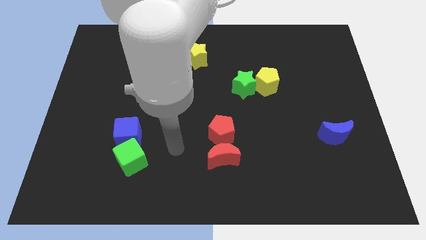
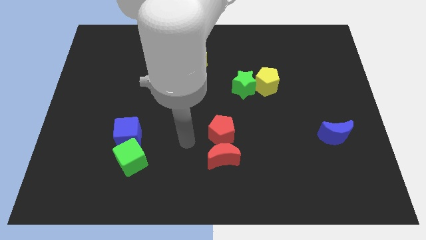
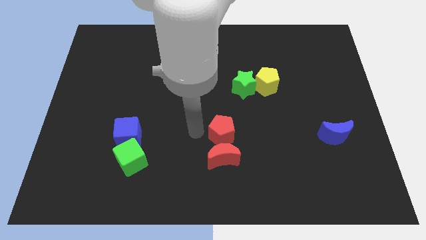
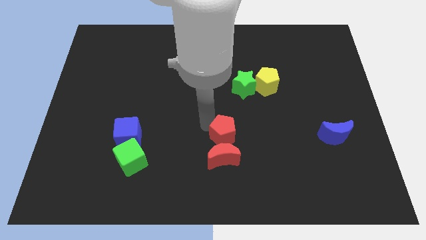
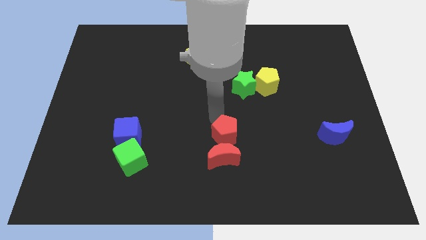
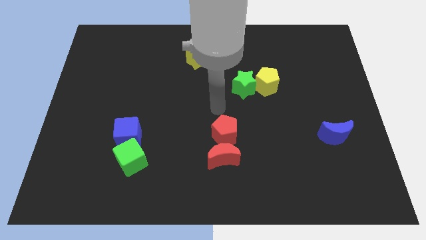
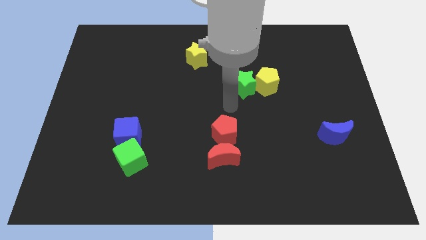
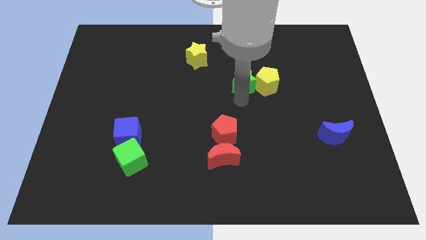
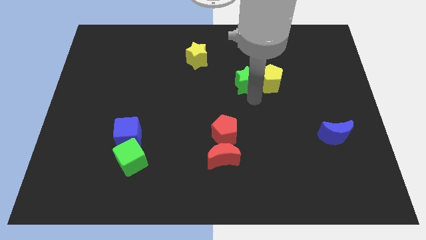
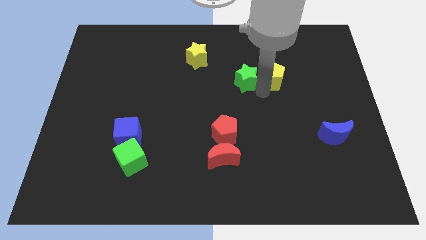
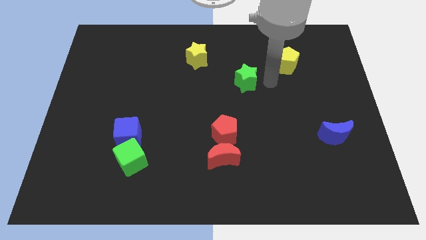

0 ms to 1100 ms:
pull the green star apart from the yellow pentagon

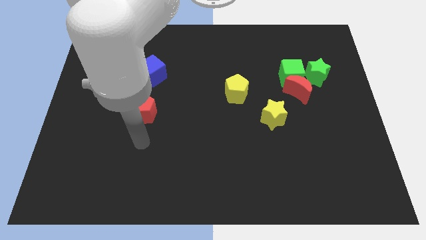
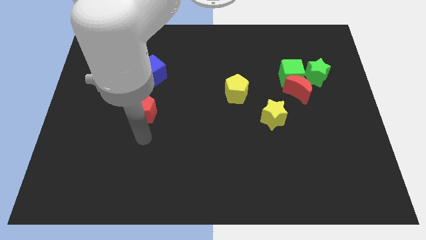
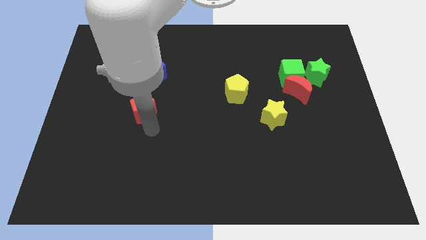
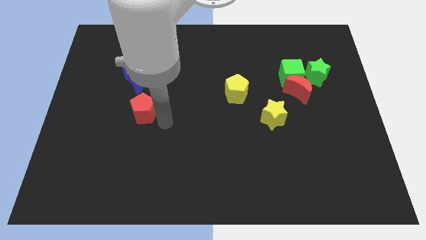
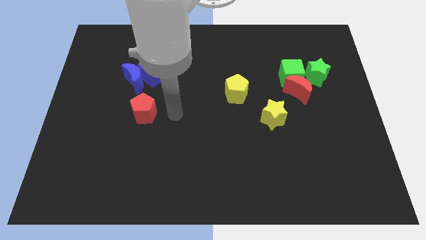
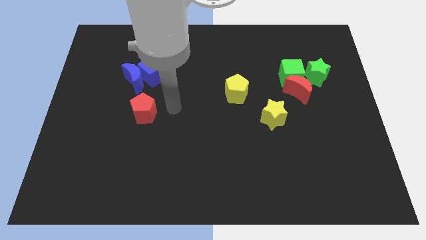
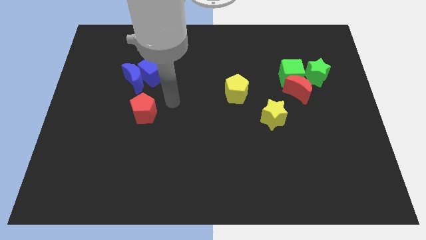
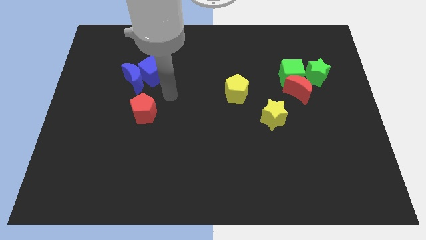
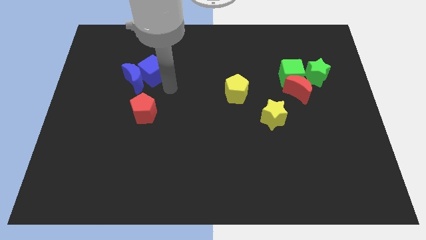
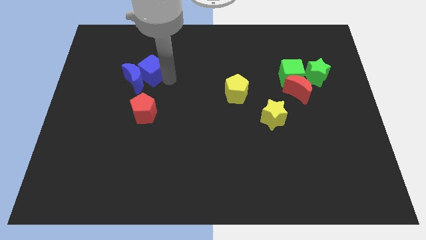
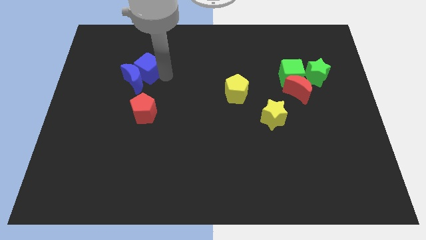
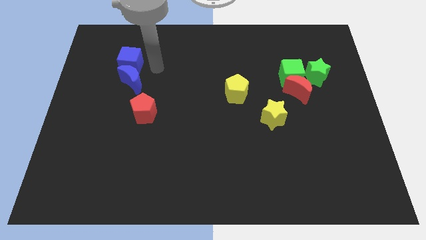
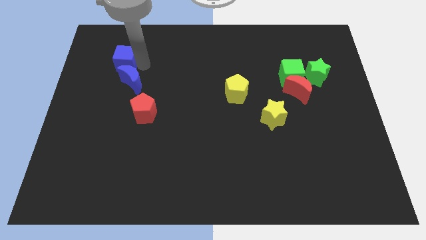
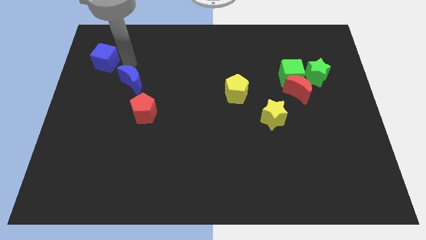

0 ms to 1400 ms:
pull the blue moon apart from the blue cube

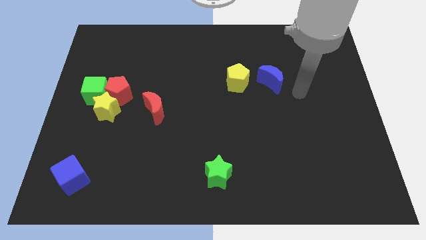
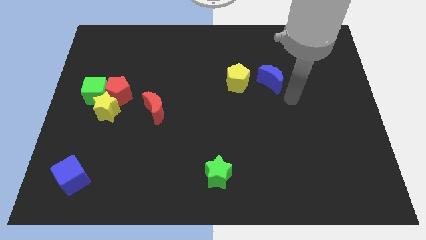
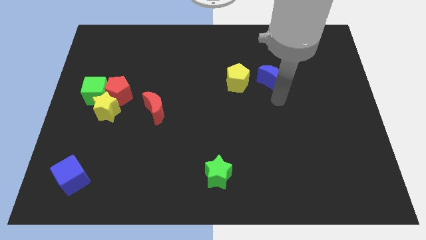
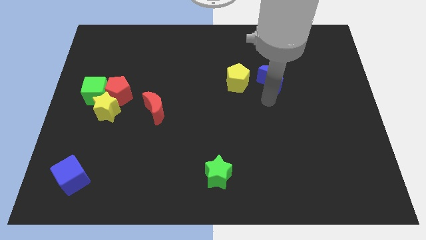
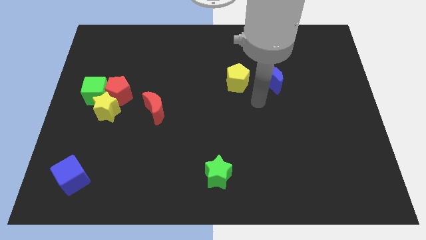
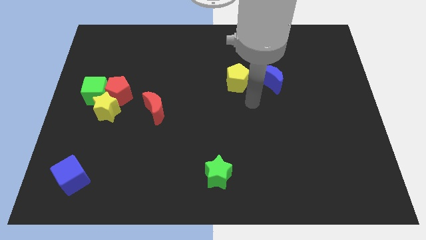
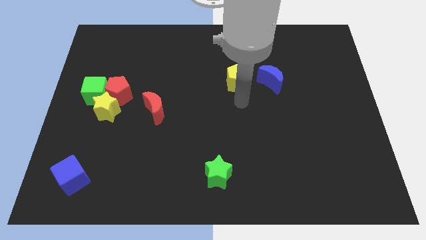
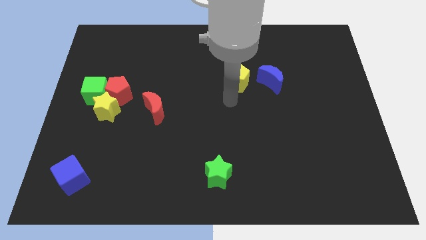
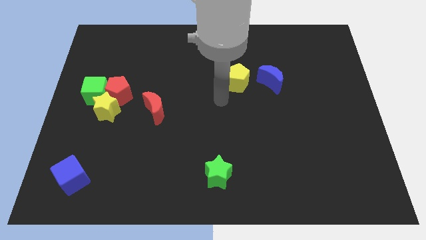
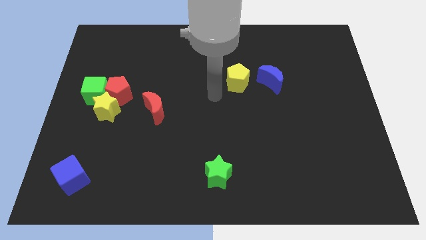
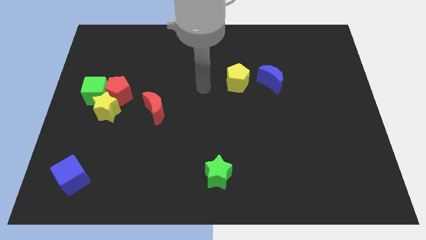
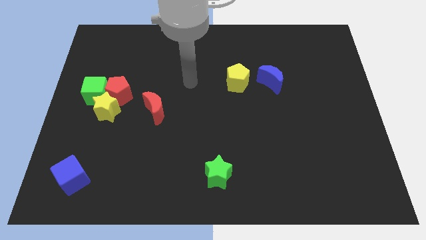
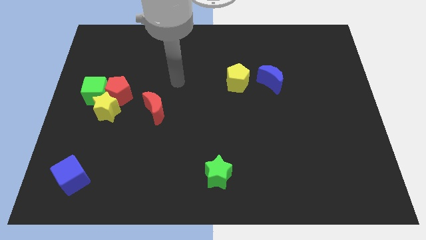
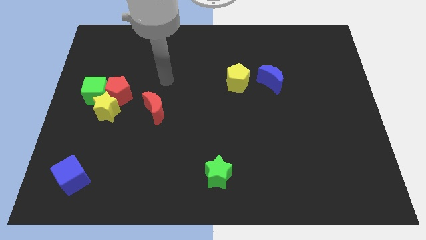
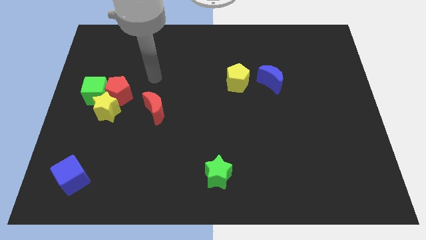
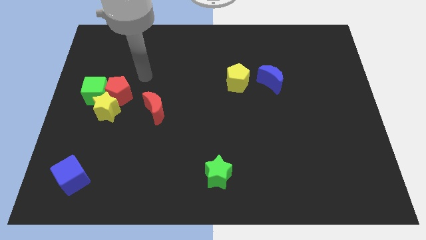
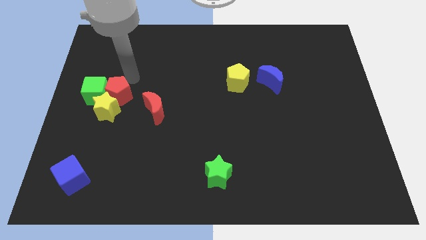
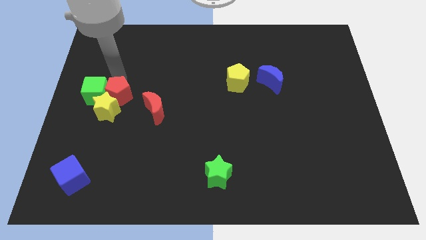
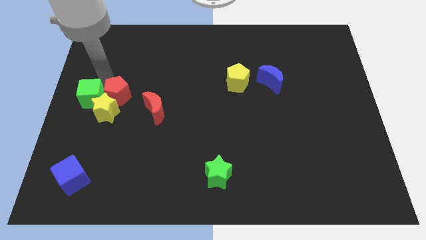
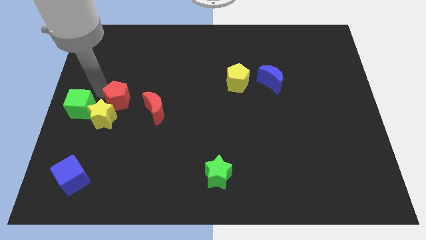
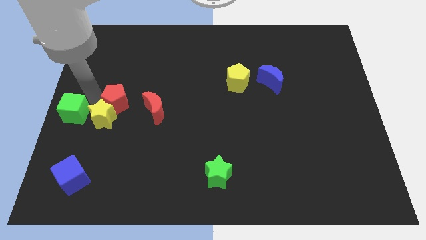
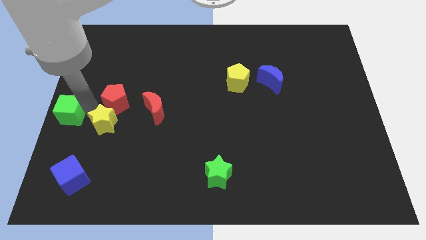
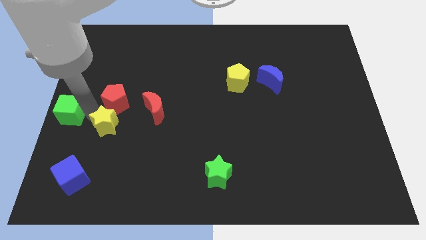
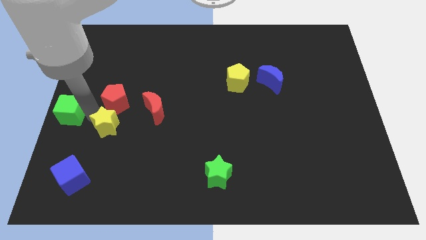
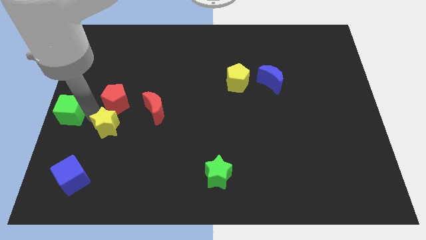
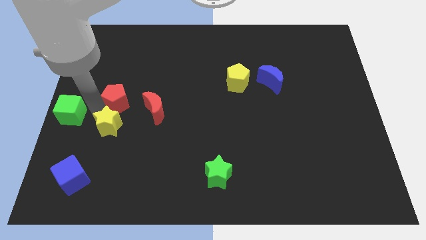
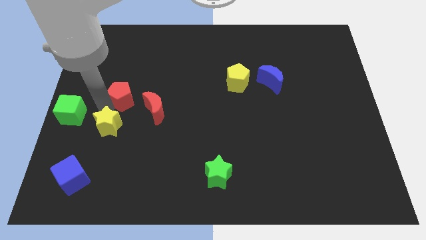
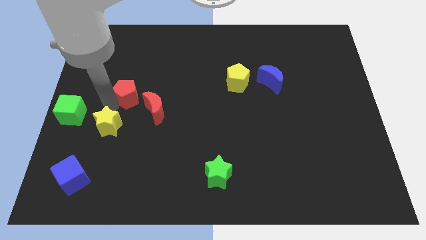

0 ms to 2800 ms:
move the red pentagon away from the green cube and yellow star

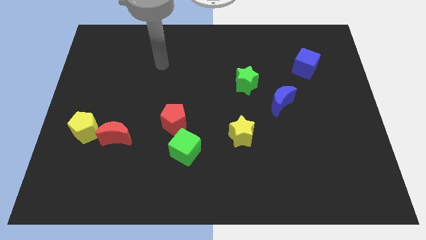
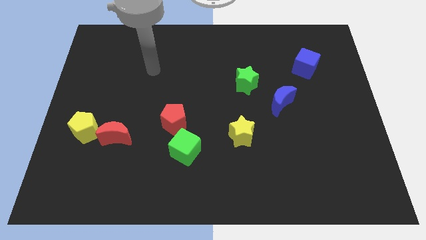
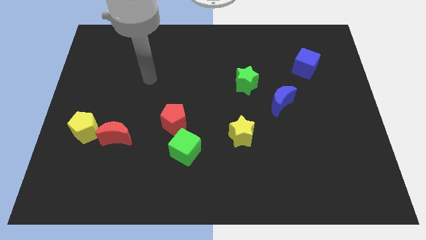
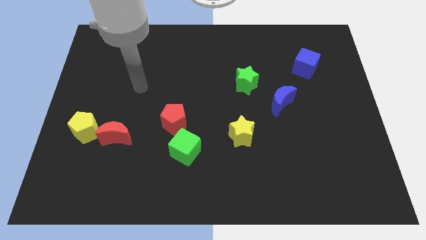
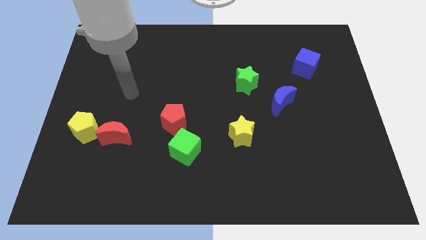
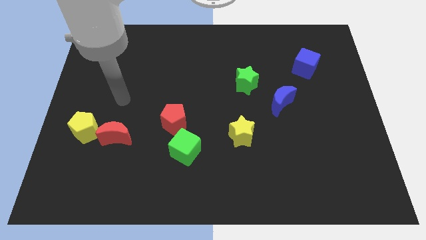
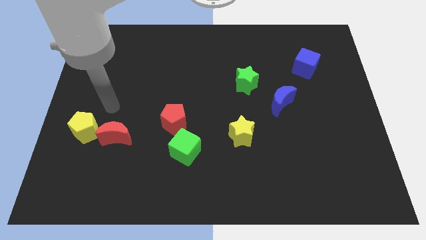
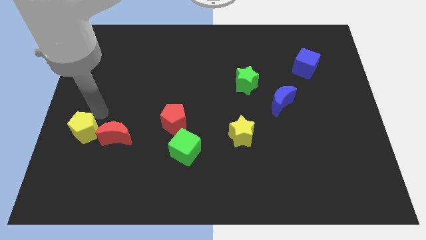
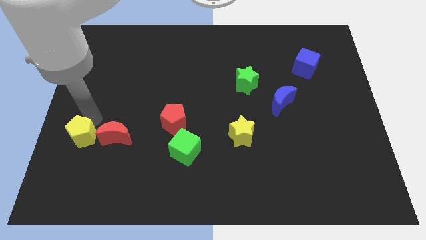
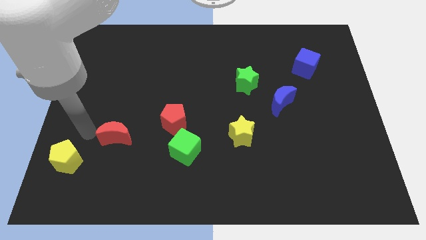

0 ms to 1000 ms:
separate the red moon from the yellow pentagon

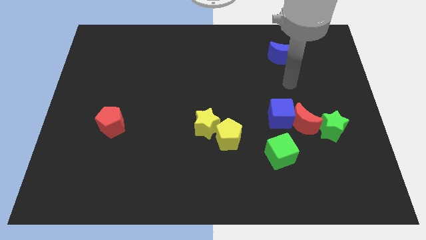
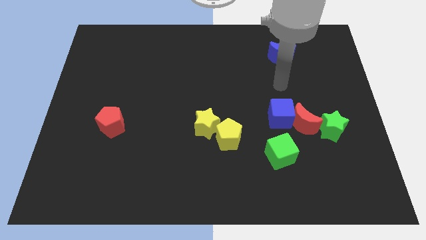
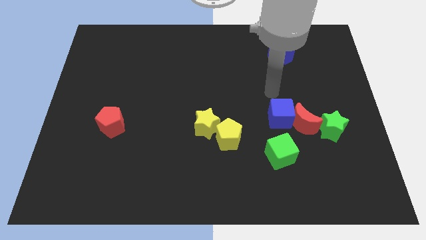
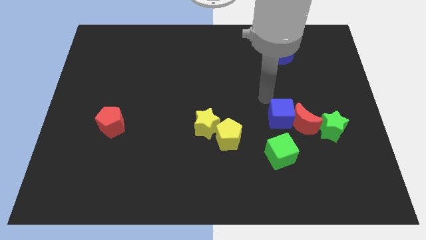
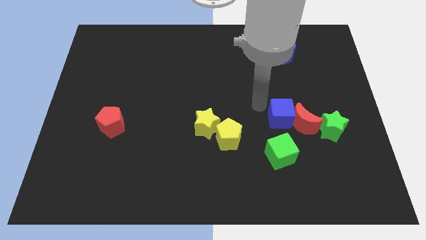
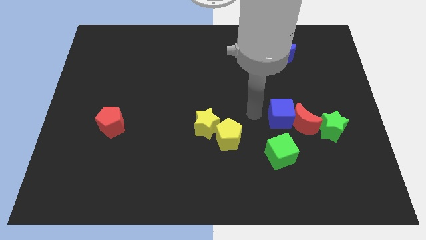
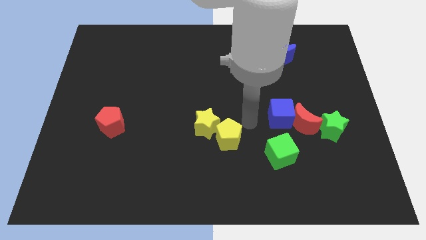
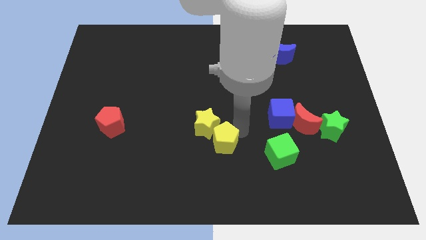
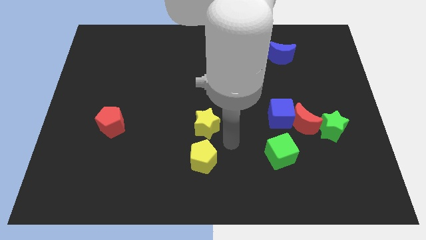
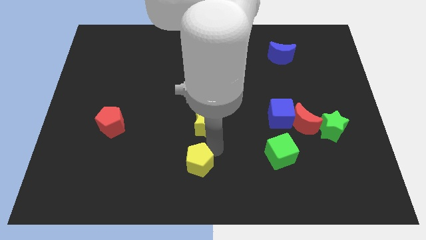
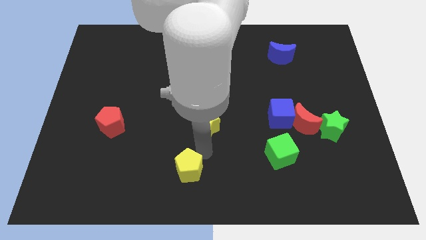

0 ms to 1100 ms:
move the yellow star away from the yellow pentagon

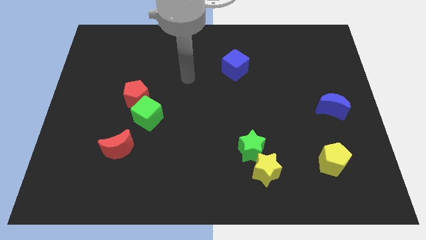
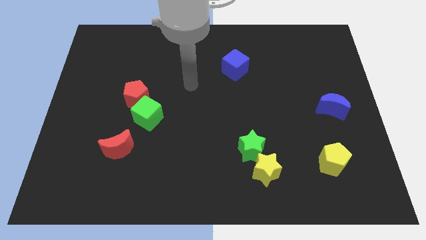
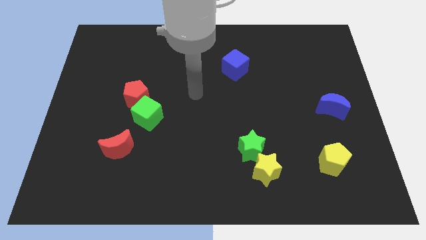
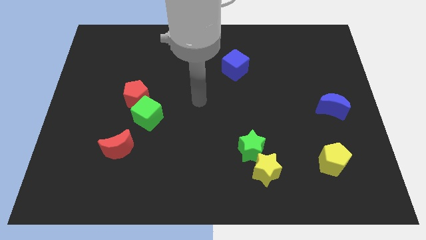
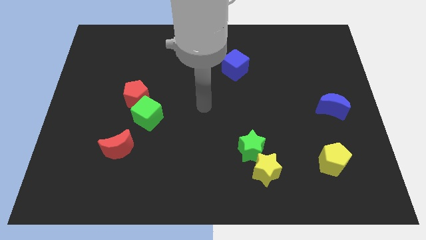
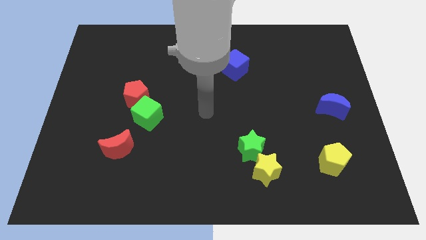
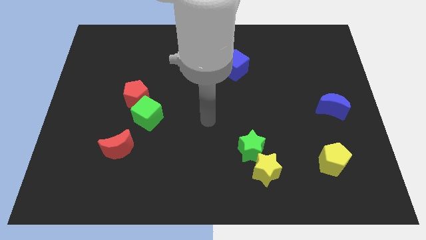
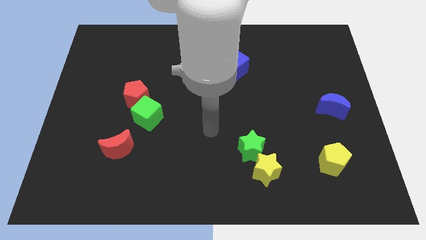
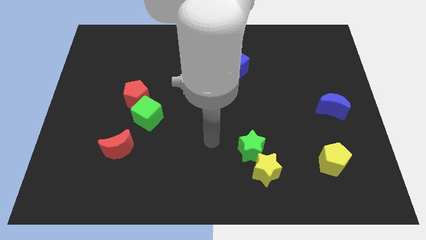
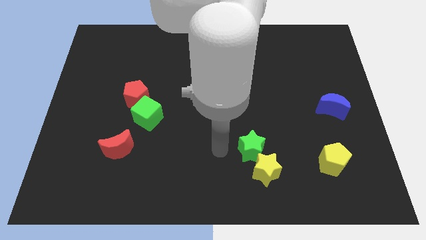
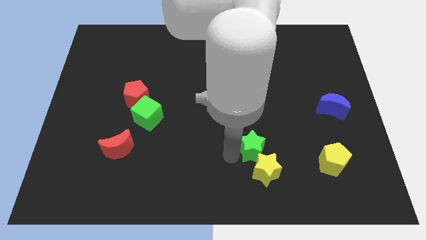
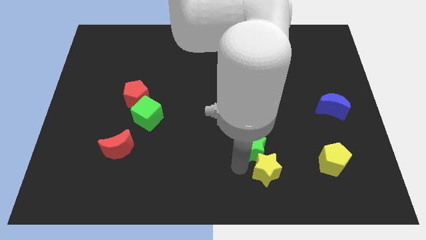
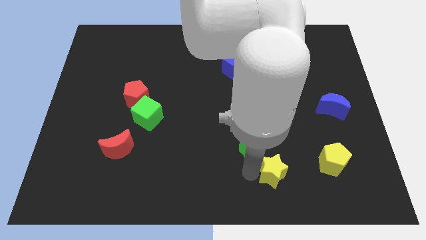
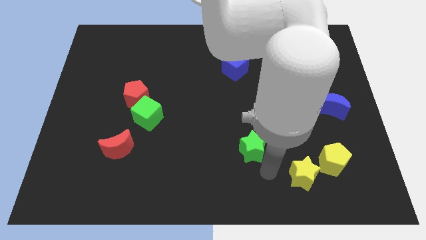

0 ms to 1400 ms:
pull the green star apart from the yellow star

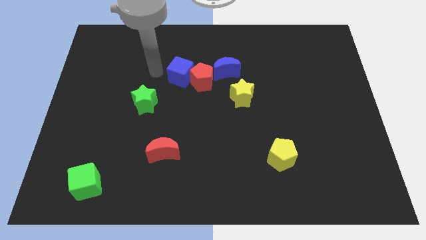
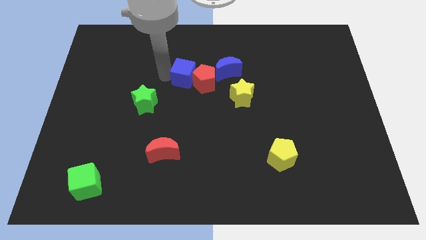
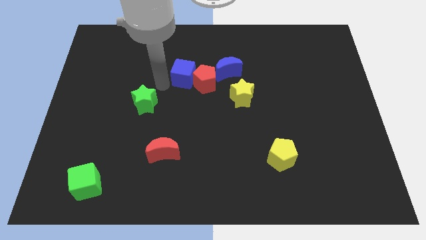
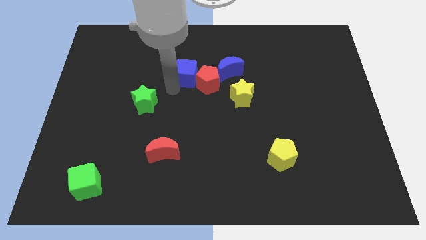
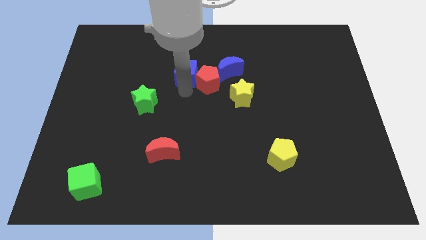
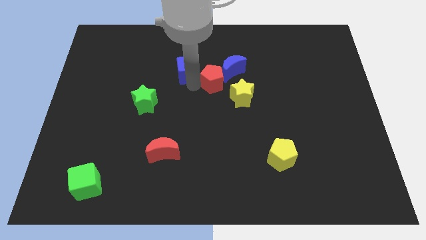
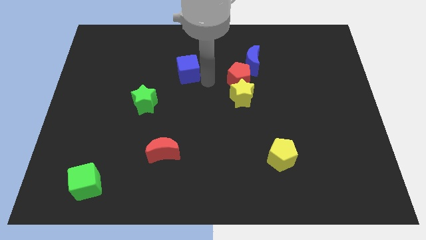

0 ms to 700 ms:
separate the blue cube from the red pentagon
